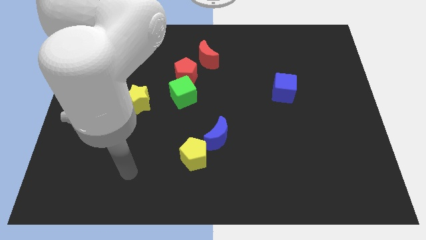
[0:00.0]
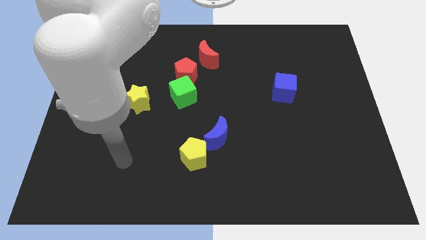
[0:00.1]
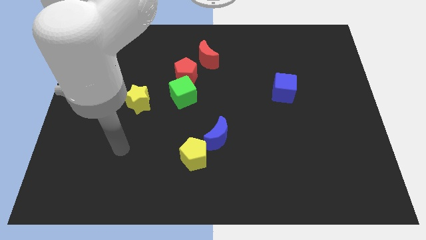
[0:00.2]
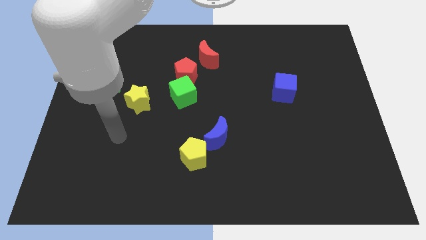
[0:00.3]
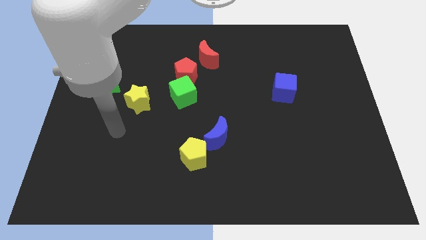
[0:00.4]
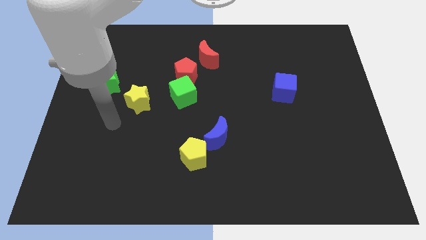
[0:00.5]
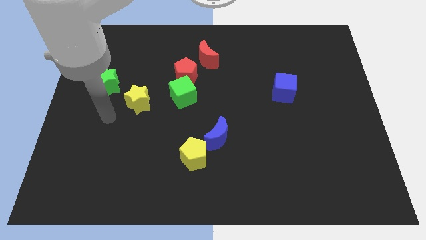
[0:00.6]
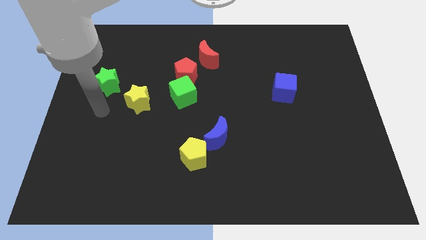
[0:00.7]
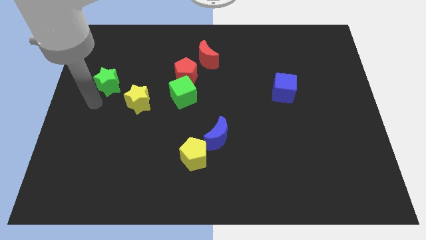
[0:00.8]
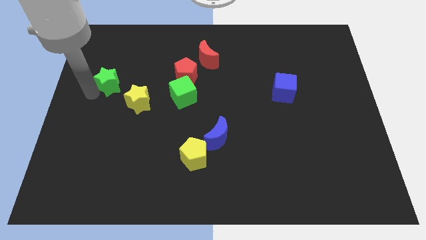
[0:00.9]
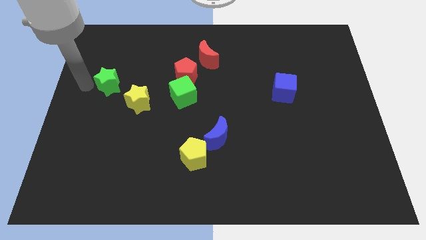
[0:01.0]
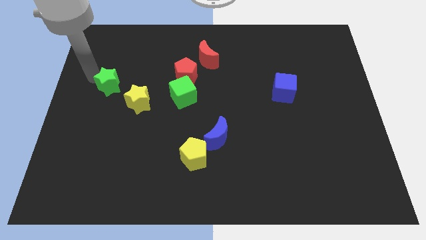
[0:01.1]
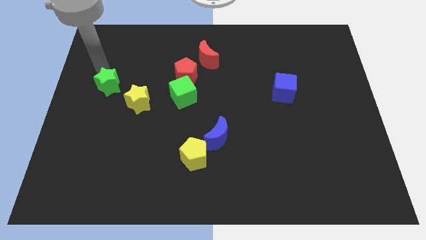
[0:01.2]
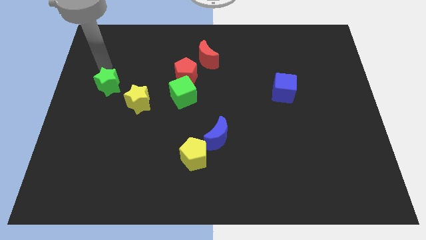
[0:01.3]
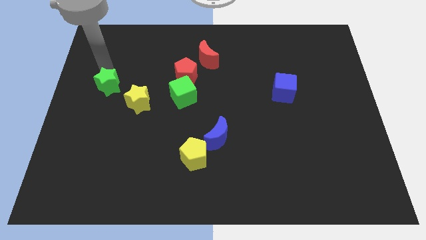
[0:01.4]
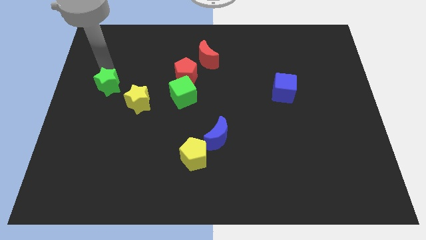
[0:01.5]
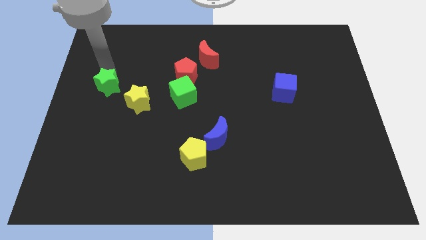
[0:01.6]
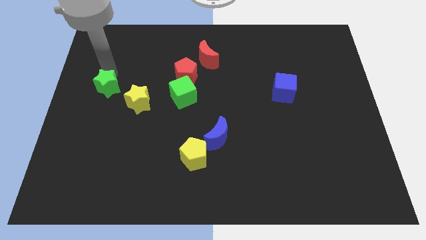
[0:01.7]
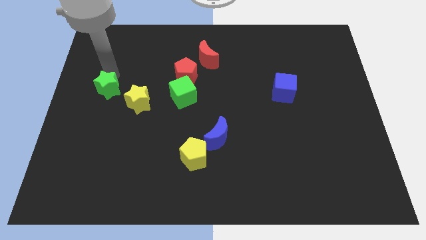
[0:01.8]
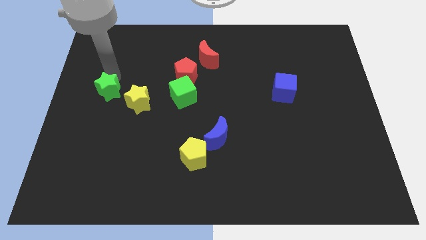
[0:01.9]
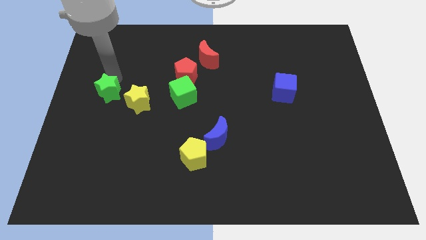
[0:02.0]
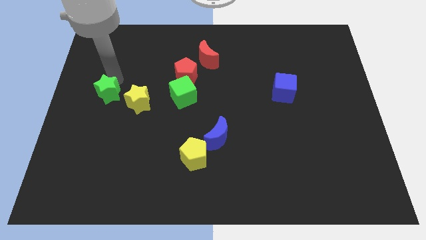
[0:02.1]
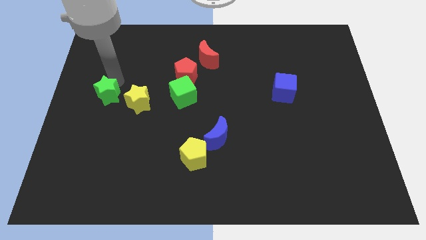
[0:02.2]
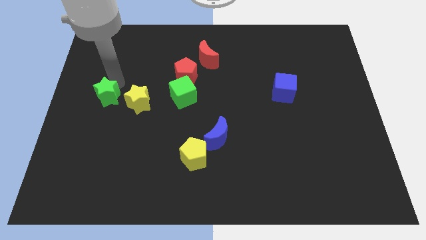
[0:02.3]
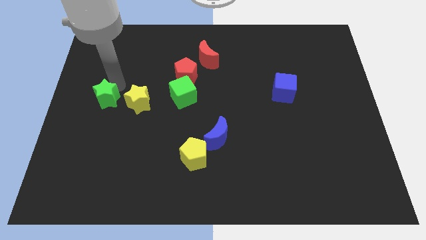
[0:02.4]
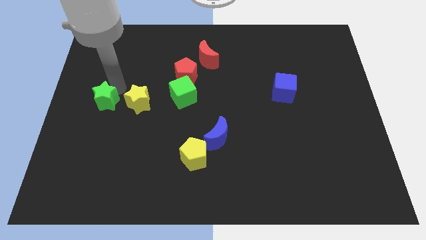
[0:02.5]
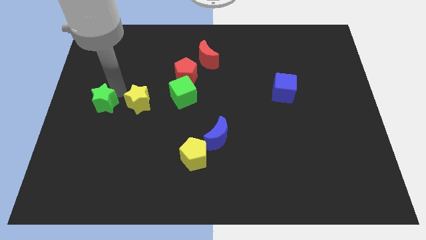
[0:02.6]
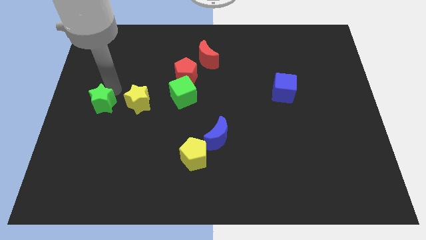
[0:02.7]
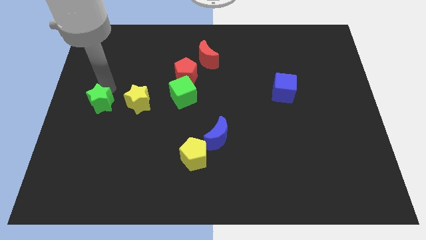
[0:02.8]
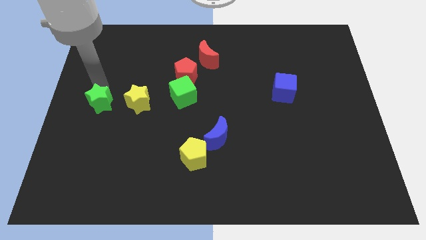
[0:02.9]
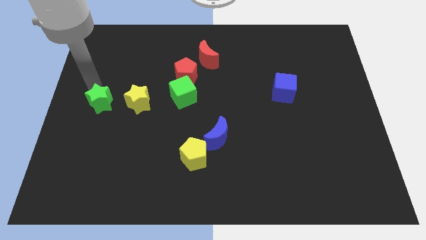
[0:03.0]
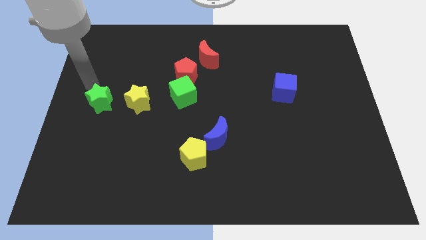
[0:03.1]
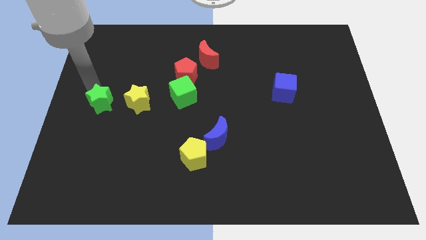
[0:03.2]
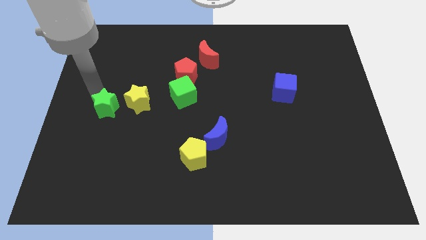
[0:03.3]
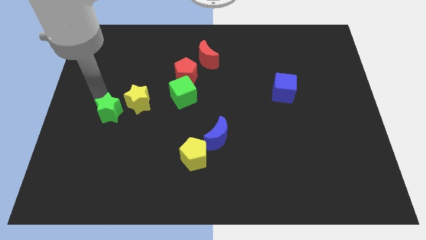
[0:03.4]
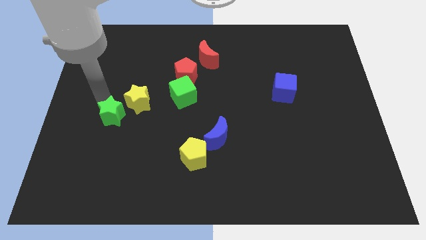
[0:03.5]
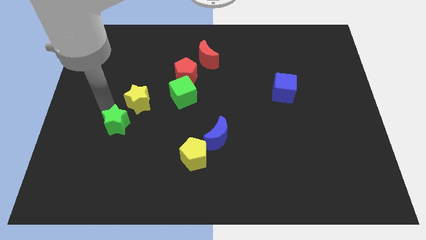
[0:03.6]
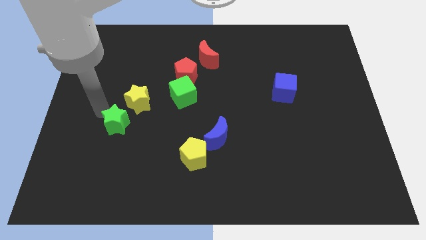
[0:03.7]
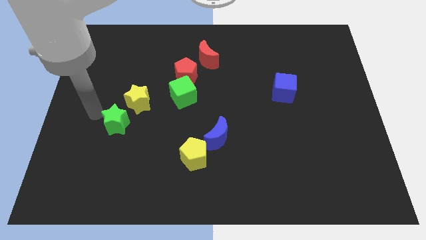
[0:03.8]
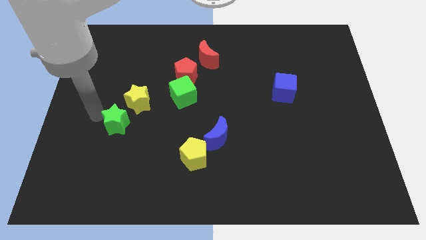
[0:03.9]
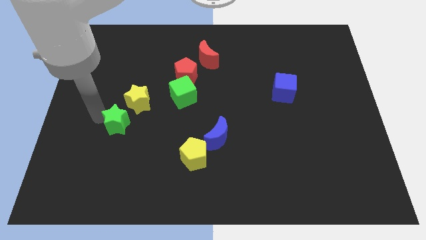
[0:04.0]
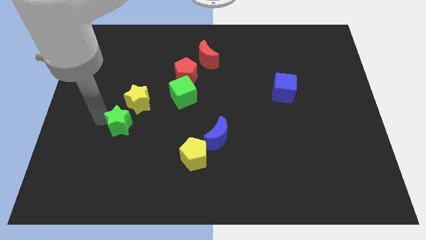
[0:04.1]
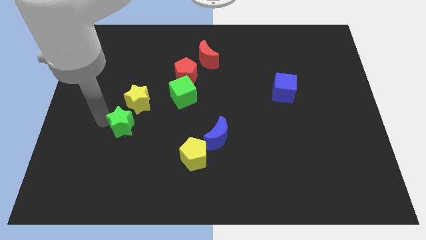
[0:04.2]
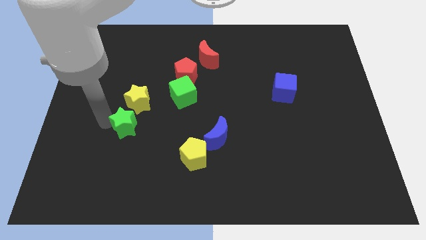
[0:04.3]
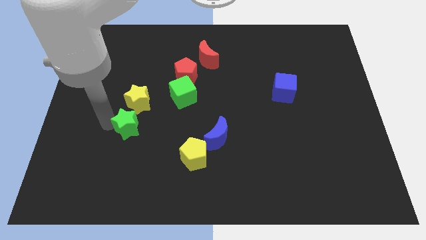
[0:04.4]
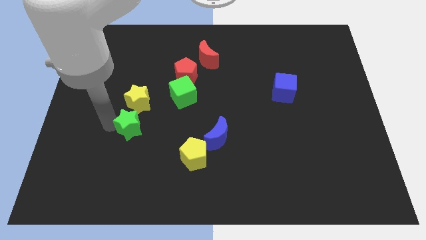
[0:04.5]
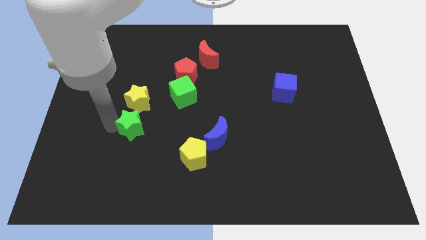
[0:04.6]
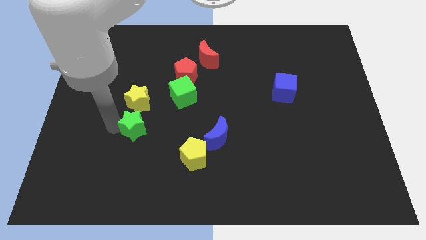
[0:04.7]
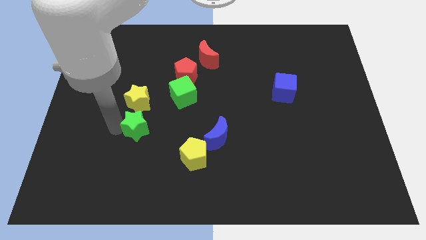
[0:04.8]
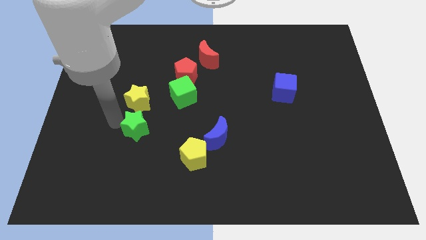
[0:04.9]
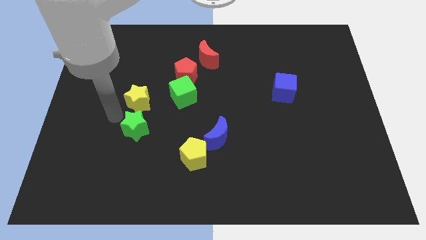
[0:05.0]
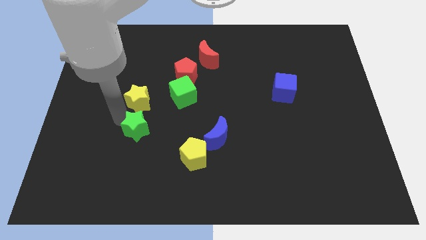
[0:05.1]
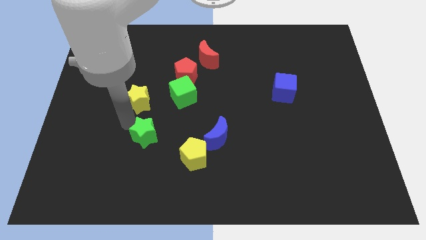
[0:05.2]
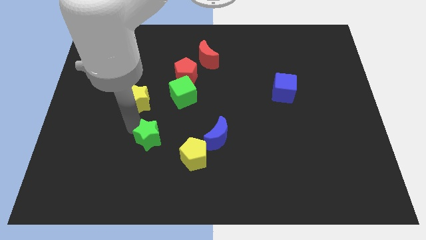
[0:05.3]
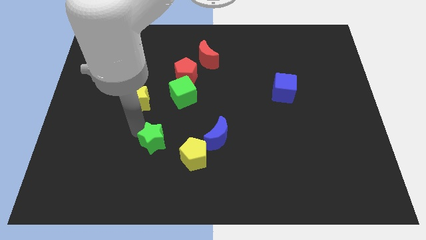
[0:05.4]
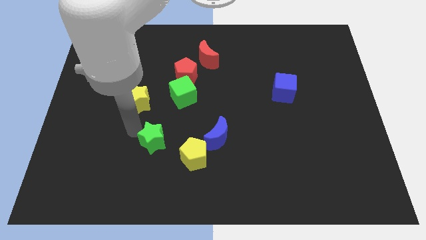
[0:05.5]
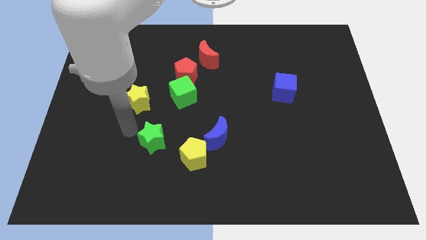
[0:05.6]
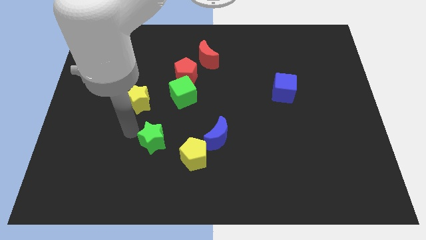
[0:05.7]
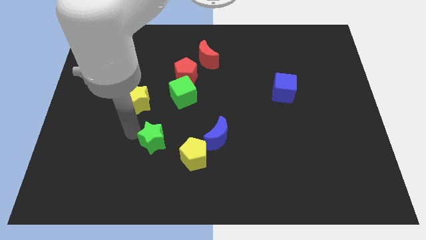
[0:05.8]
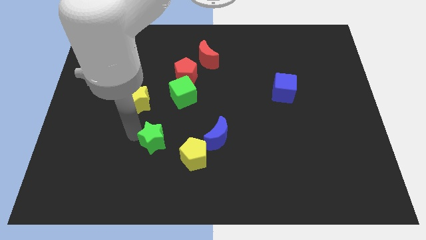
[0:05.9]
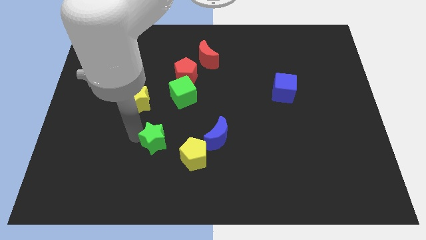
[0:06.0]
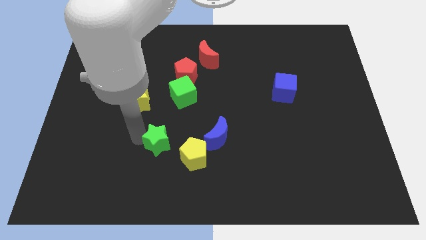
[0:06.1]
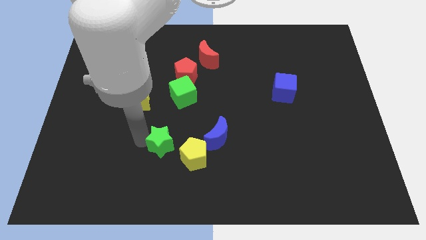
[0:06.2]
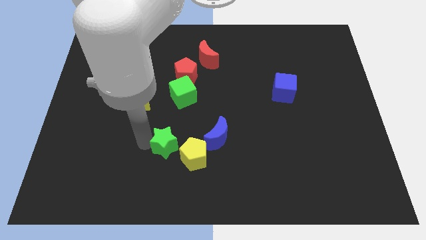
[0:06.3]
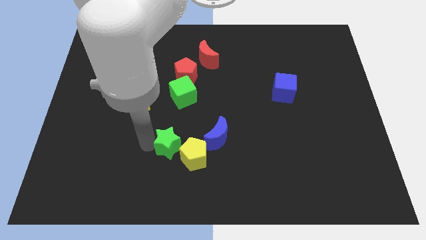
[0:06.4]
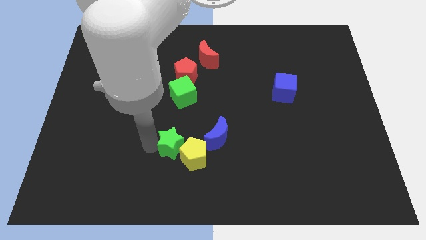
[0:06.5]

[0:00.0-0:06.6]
slide the green star towards the yellow pentagon
